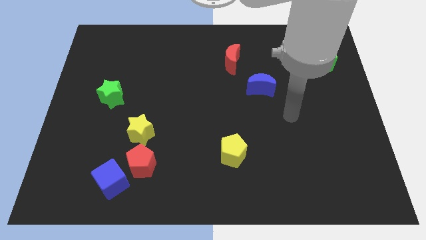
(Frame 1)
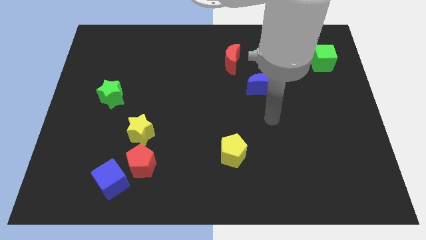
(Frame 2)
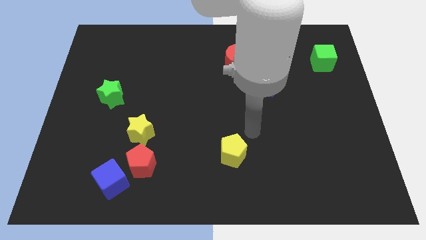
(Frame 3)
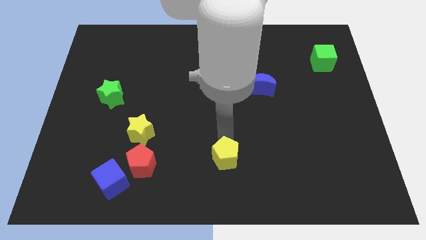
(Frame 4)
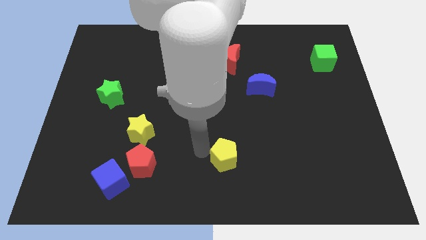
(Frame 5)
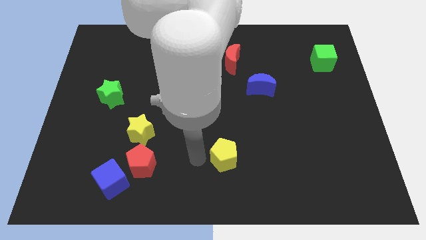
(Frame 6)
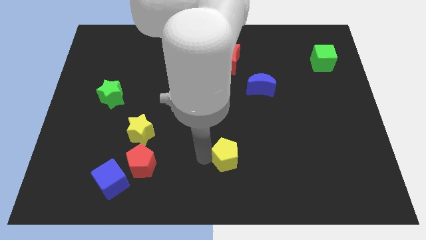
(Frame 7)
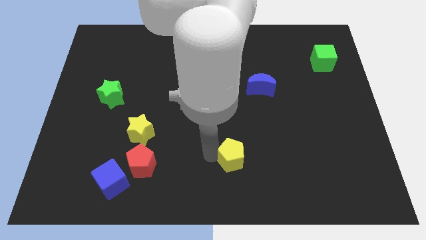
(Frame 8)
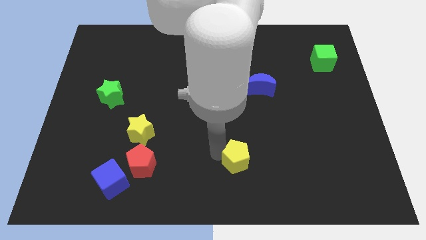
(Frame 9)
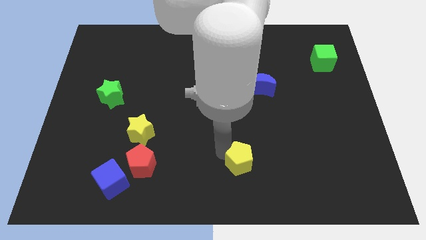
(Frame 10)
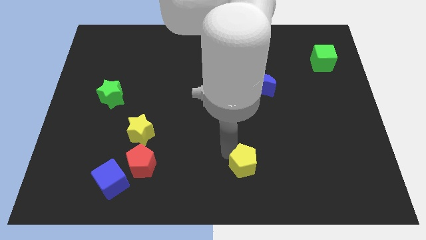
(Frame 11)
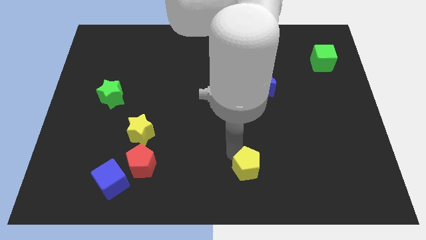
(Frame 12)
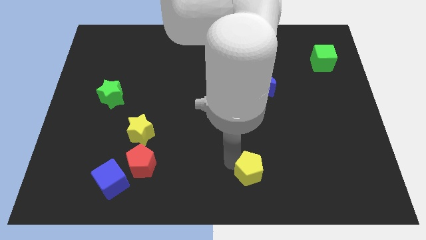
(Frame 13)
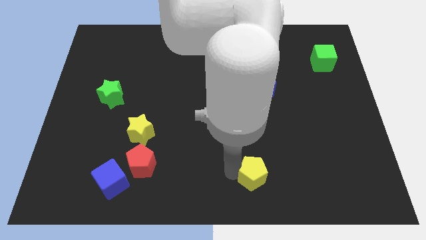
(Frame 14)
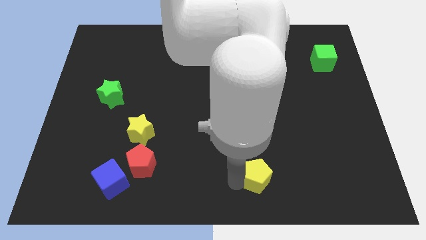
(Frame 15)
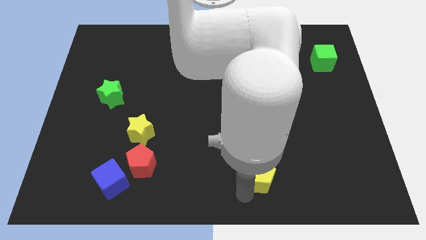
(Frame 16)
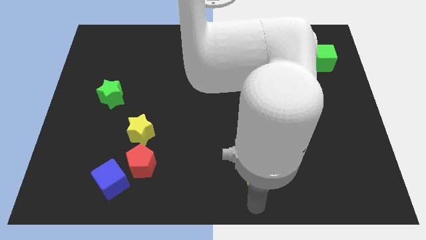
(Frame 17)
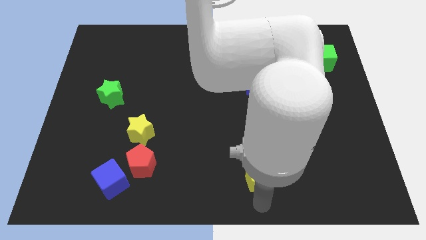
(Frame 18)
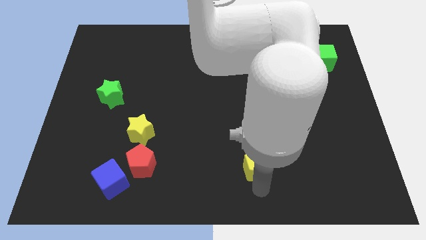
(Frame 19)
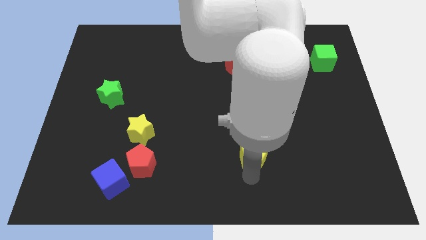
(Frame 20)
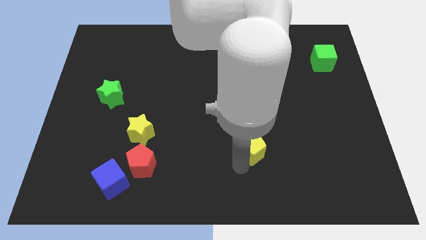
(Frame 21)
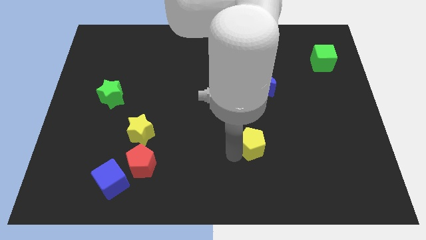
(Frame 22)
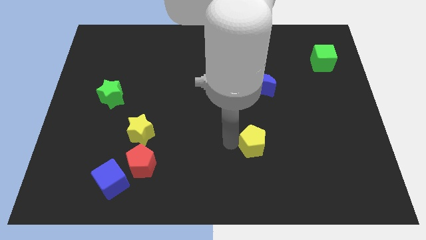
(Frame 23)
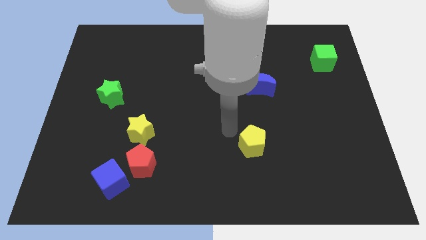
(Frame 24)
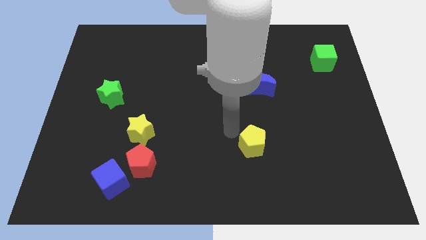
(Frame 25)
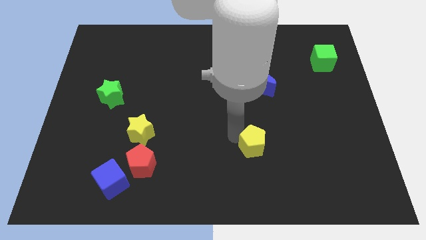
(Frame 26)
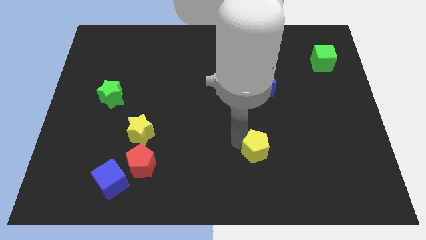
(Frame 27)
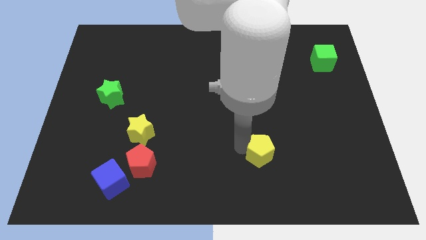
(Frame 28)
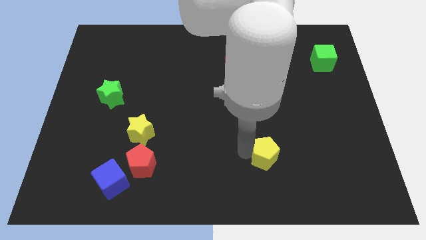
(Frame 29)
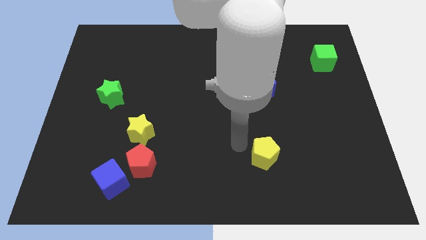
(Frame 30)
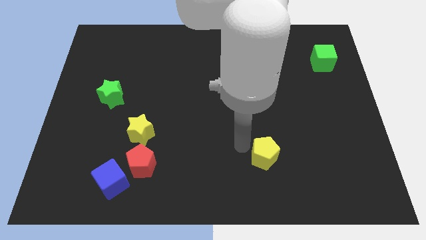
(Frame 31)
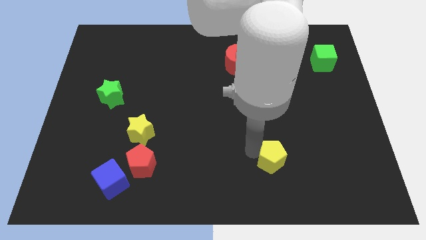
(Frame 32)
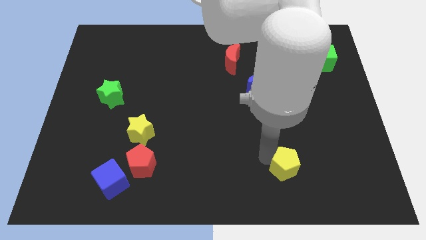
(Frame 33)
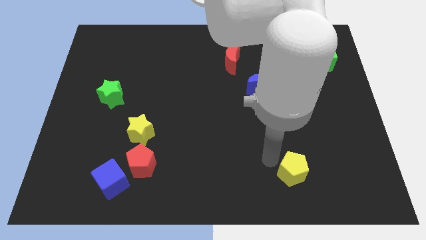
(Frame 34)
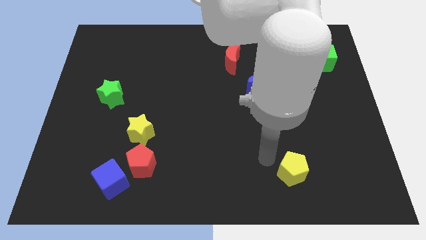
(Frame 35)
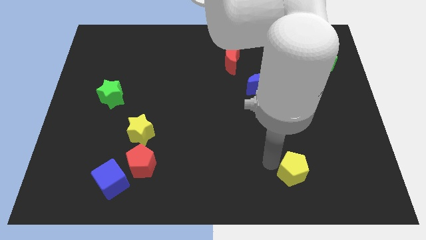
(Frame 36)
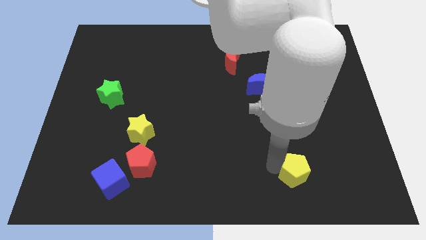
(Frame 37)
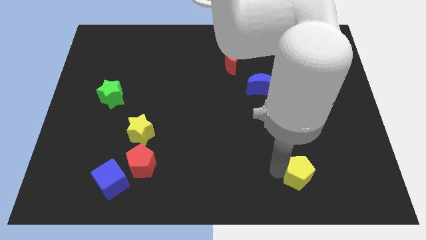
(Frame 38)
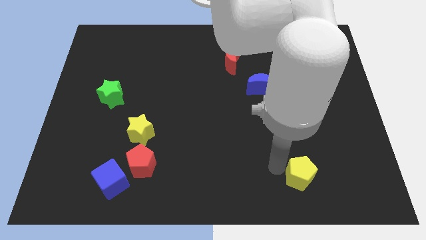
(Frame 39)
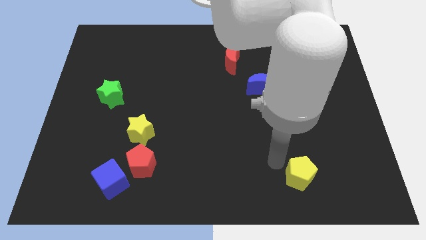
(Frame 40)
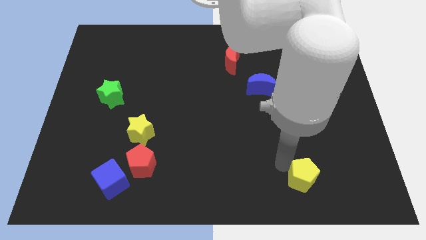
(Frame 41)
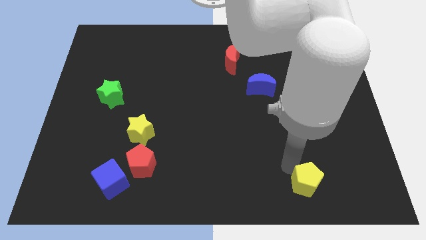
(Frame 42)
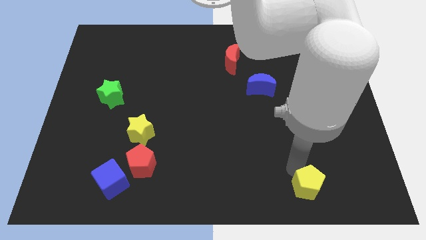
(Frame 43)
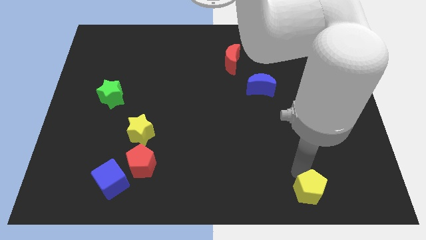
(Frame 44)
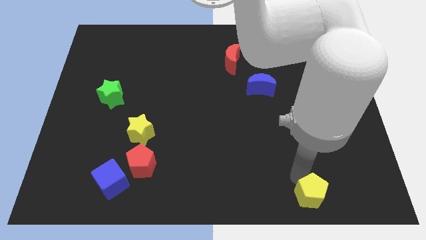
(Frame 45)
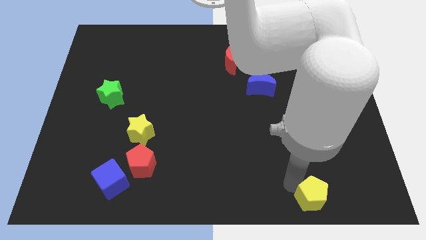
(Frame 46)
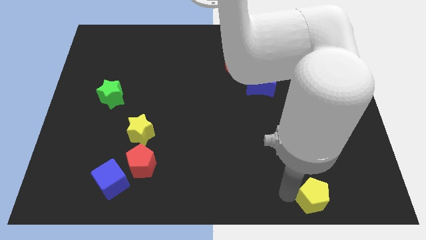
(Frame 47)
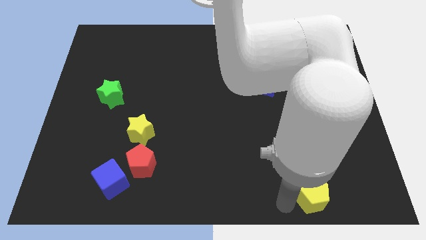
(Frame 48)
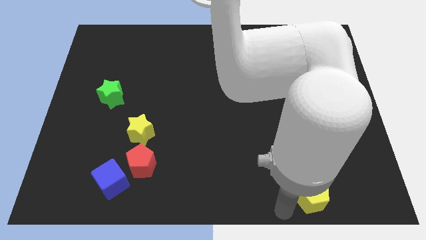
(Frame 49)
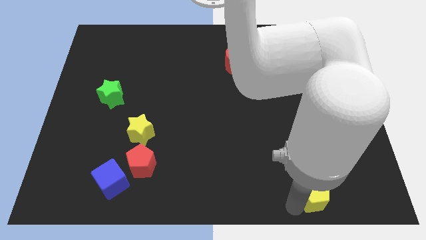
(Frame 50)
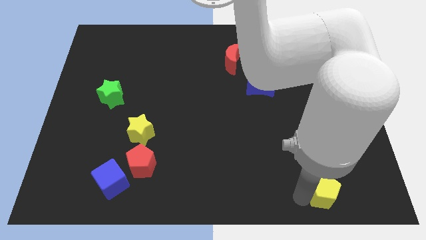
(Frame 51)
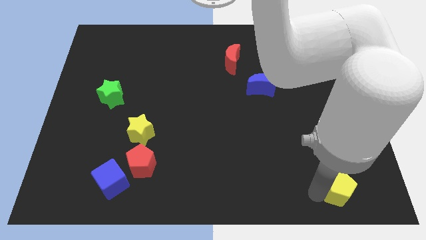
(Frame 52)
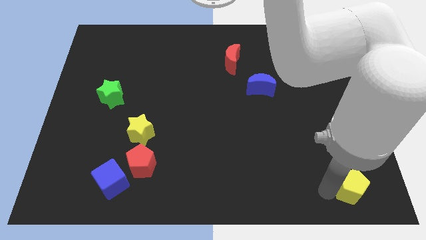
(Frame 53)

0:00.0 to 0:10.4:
push the yellow pentagon to the bottom right of the board

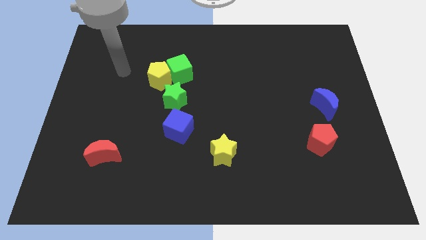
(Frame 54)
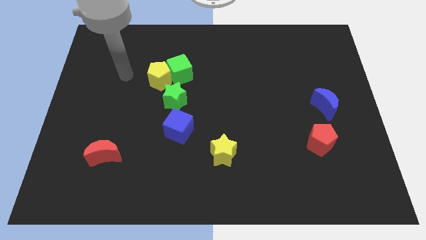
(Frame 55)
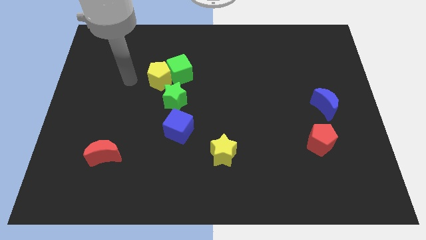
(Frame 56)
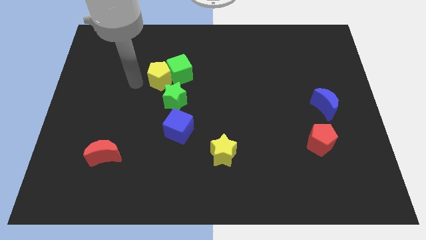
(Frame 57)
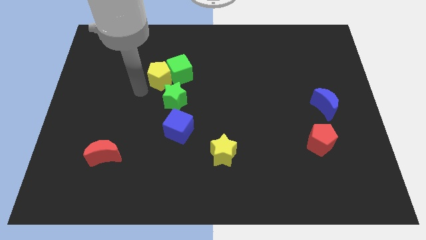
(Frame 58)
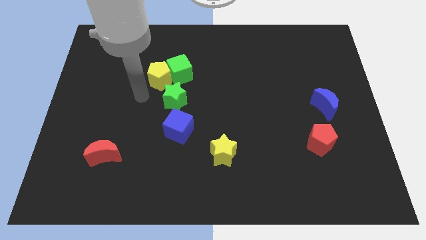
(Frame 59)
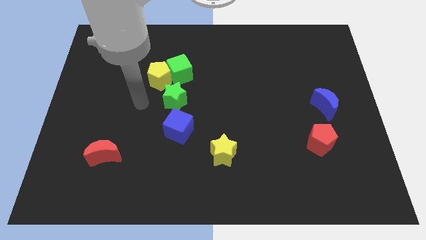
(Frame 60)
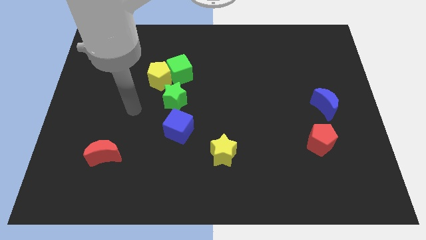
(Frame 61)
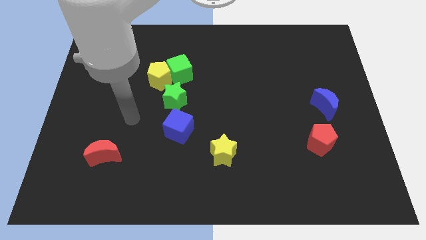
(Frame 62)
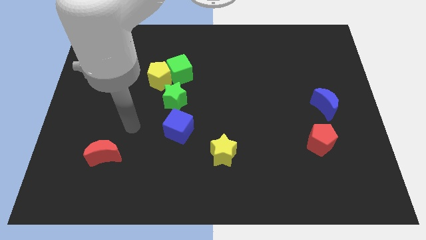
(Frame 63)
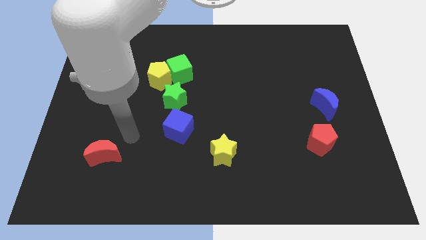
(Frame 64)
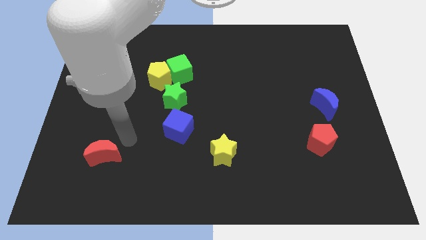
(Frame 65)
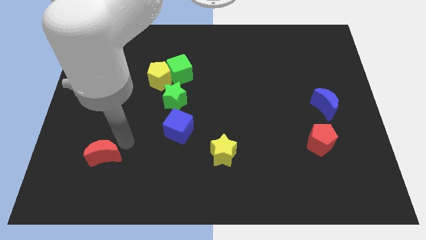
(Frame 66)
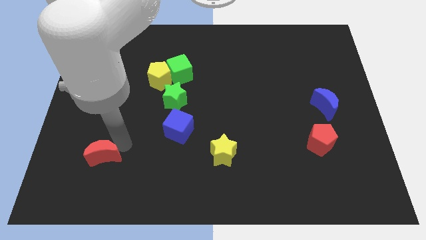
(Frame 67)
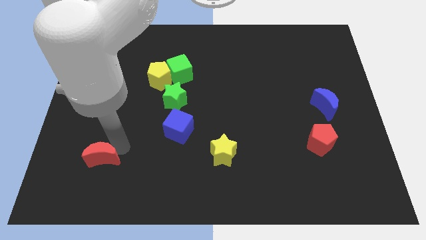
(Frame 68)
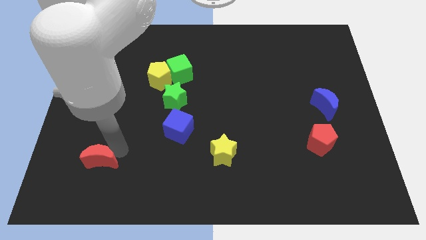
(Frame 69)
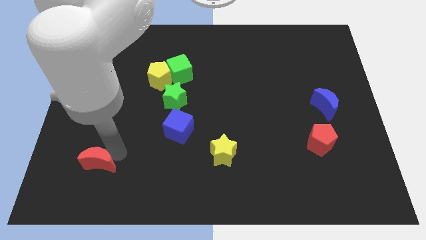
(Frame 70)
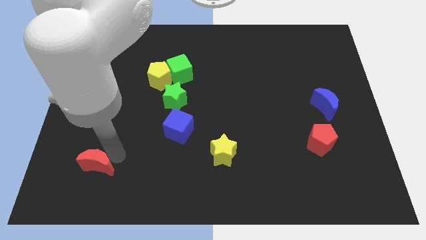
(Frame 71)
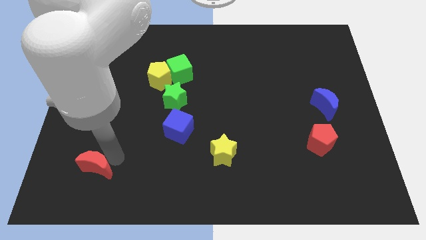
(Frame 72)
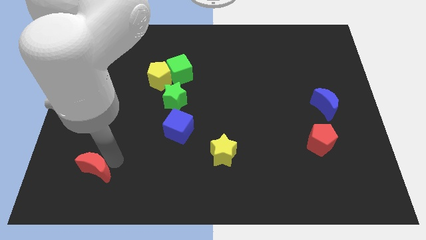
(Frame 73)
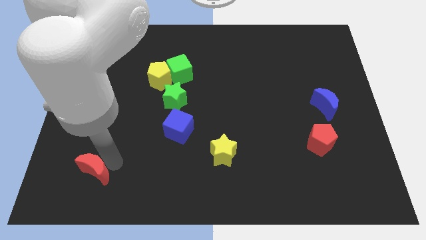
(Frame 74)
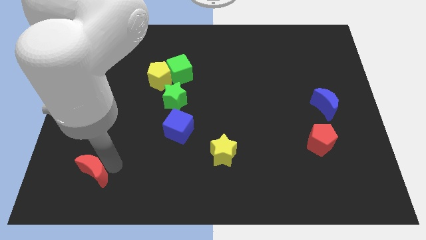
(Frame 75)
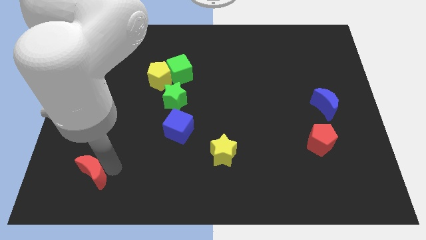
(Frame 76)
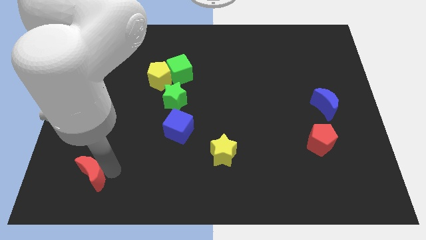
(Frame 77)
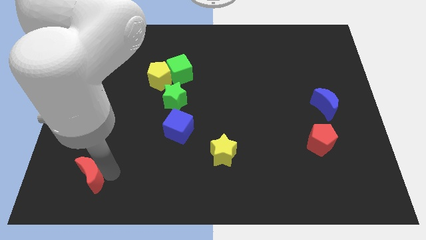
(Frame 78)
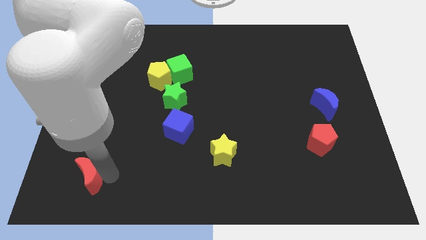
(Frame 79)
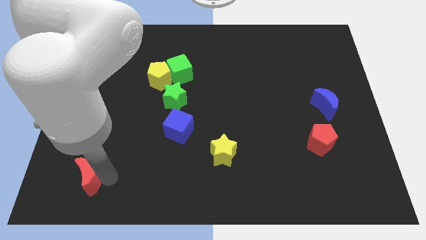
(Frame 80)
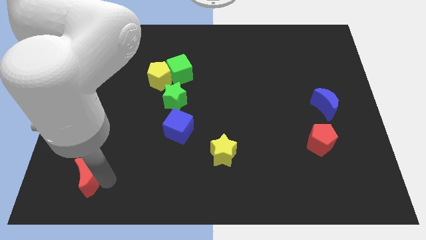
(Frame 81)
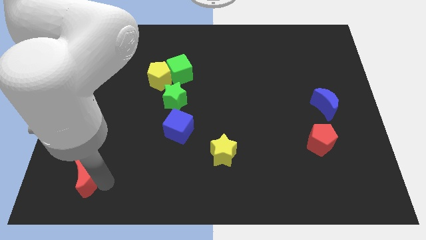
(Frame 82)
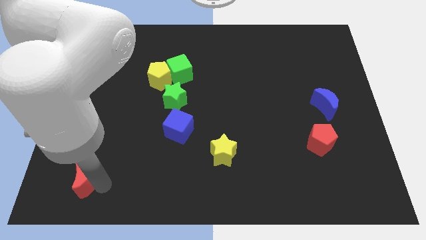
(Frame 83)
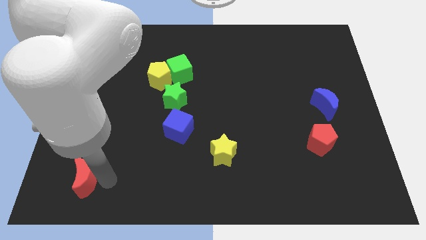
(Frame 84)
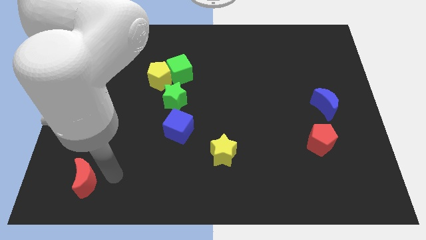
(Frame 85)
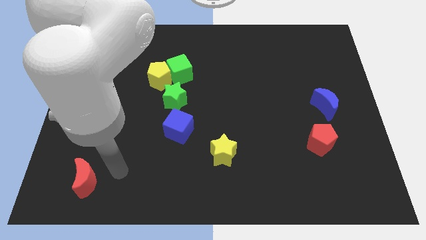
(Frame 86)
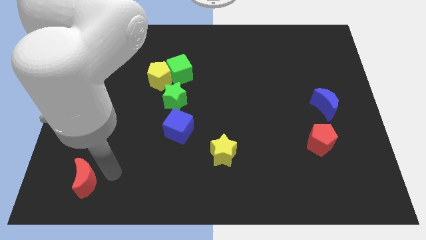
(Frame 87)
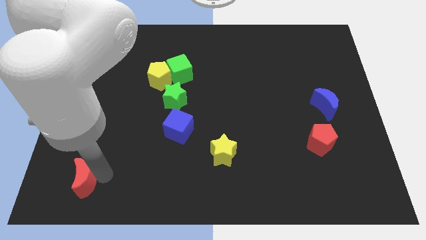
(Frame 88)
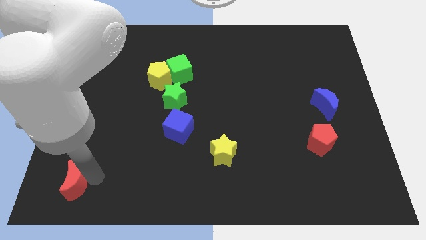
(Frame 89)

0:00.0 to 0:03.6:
put the red moon to the lower left corner
